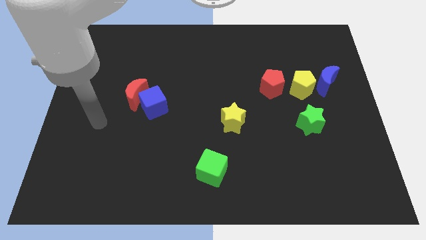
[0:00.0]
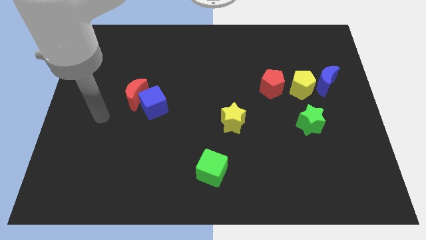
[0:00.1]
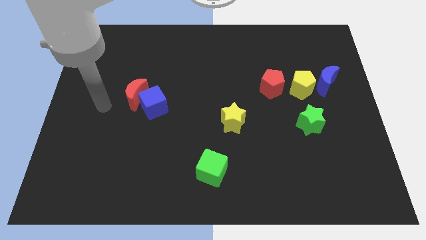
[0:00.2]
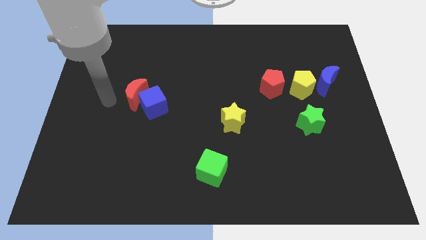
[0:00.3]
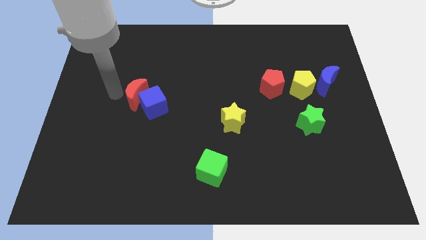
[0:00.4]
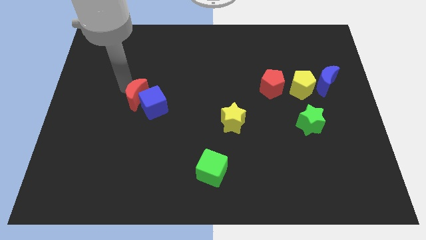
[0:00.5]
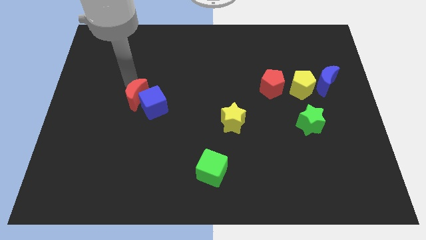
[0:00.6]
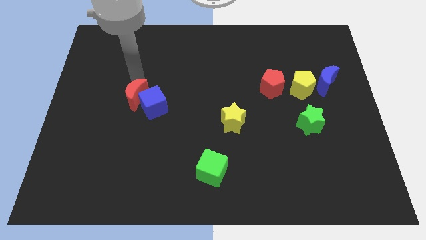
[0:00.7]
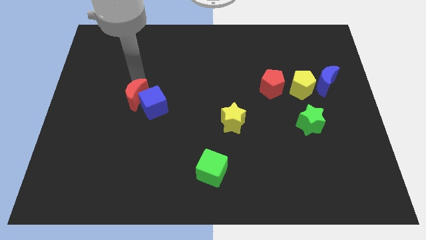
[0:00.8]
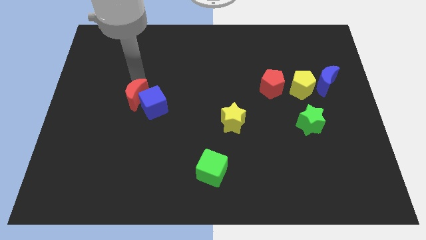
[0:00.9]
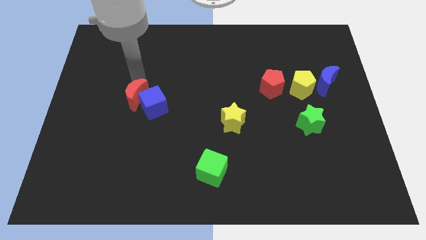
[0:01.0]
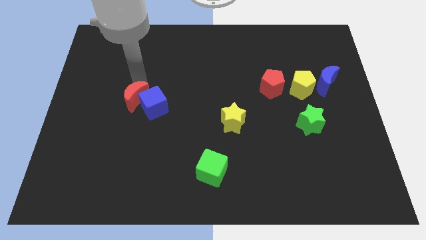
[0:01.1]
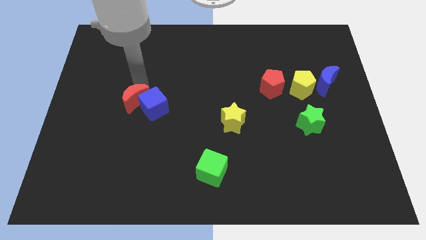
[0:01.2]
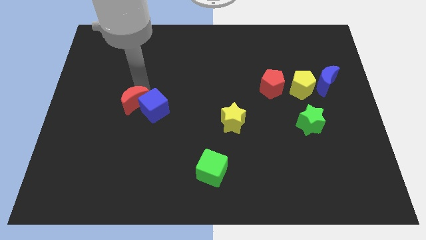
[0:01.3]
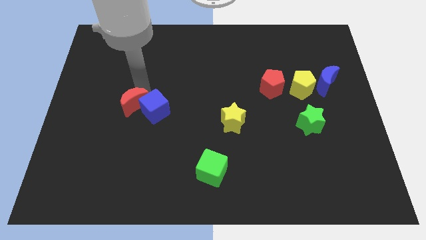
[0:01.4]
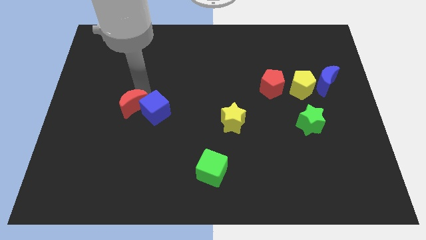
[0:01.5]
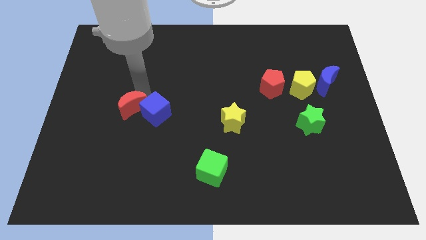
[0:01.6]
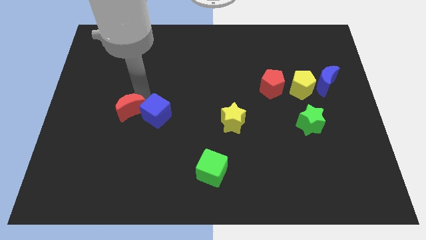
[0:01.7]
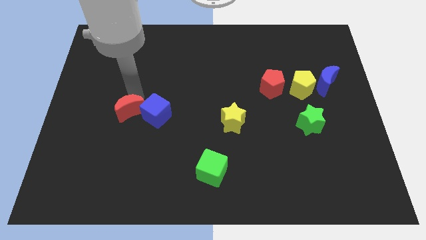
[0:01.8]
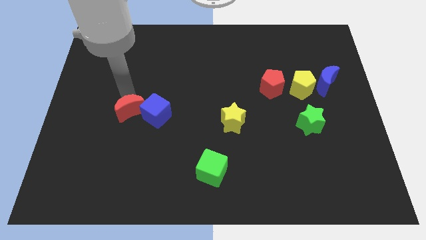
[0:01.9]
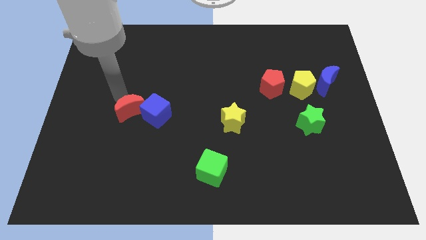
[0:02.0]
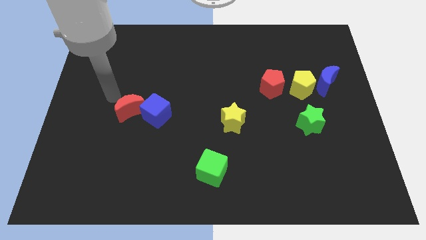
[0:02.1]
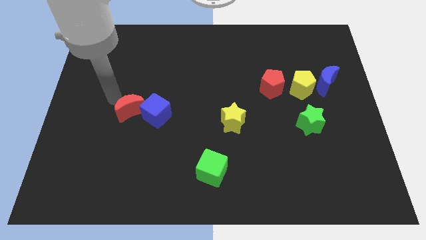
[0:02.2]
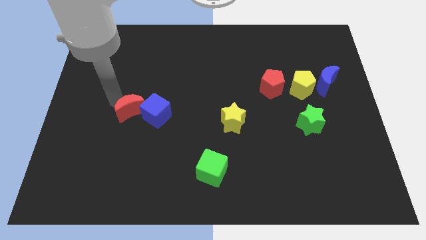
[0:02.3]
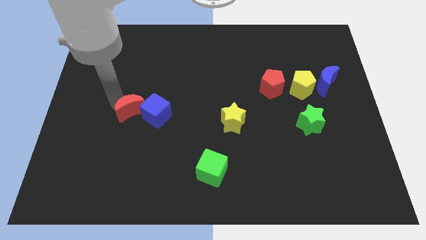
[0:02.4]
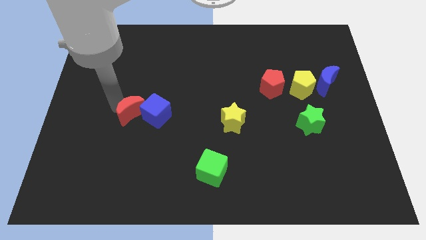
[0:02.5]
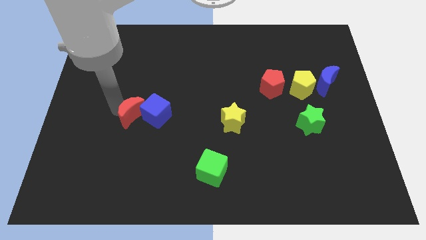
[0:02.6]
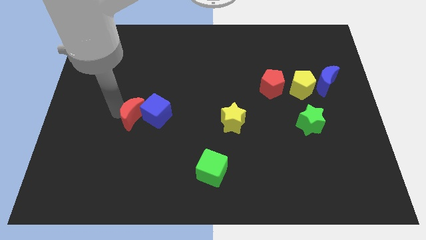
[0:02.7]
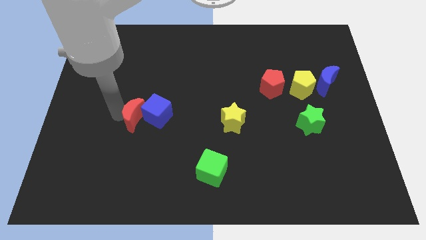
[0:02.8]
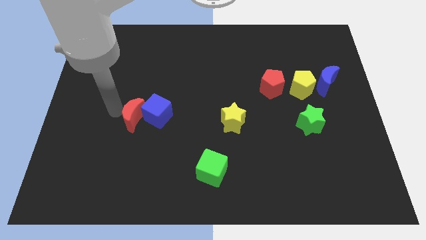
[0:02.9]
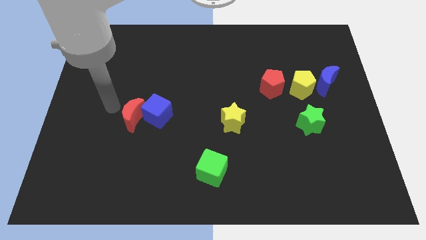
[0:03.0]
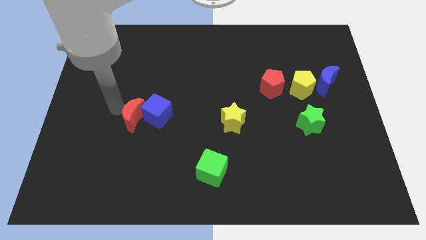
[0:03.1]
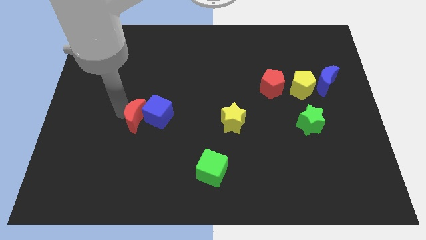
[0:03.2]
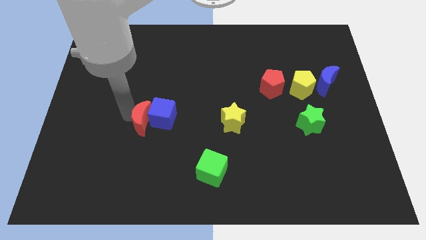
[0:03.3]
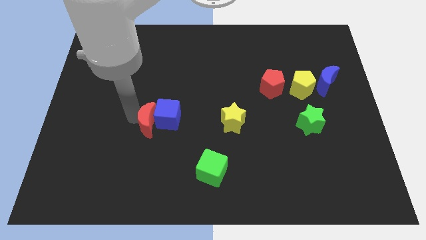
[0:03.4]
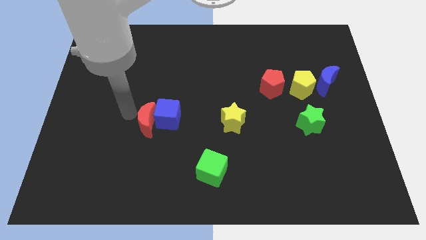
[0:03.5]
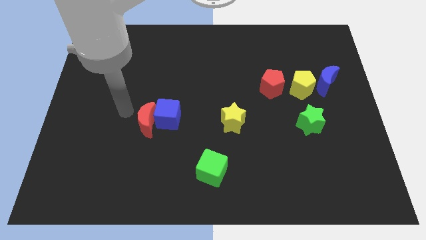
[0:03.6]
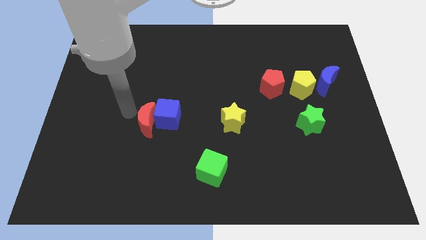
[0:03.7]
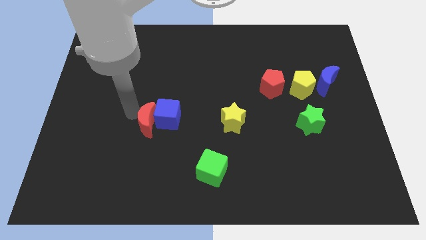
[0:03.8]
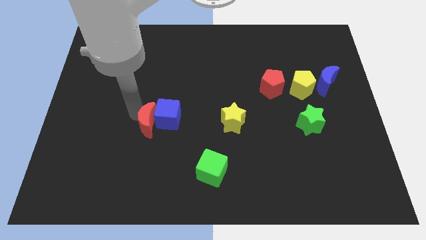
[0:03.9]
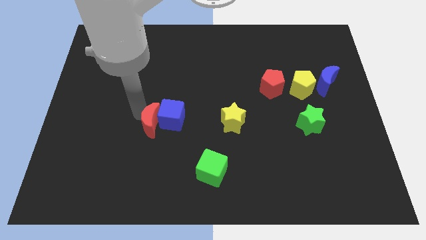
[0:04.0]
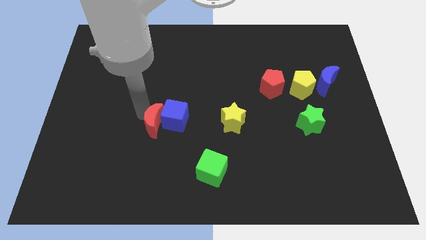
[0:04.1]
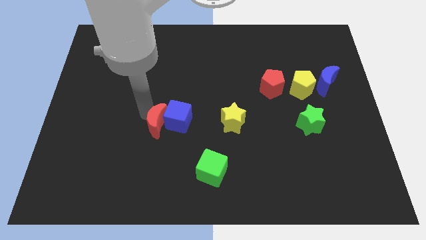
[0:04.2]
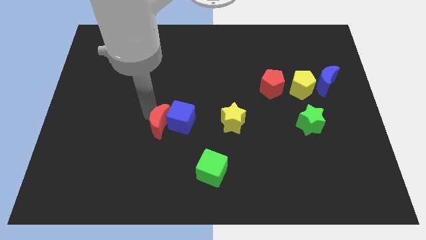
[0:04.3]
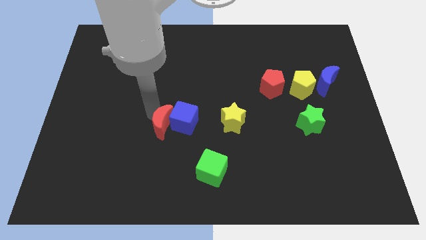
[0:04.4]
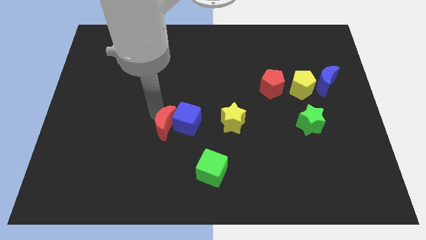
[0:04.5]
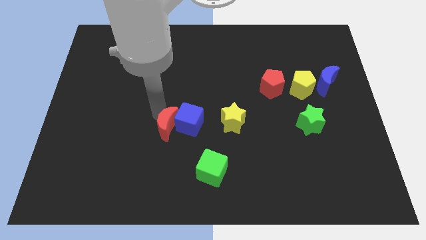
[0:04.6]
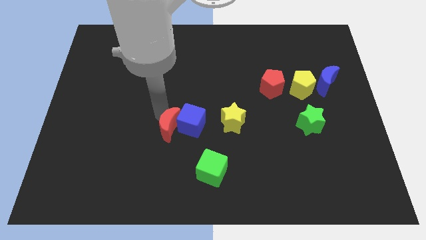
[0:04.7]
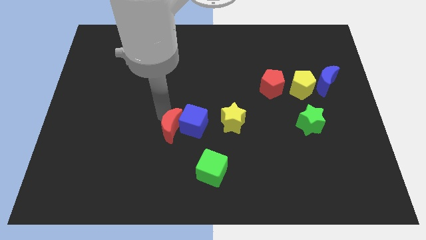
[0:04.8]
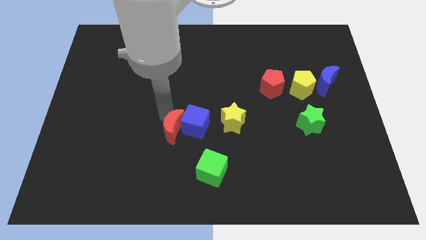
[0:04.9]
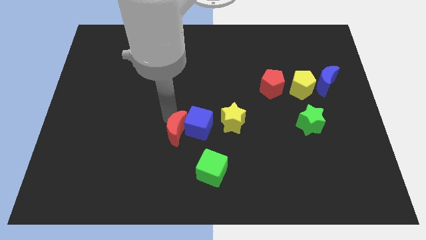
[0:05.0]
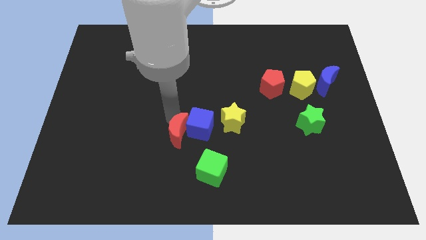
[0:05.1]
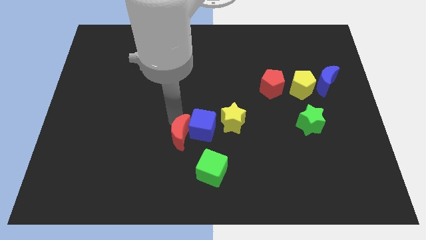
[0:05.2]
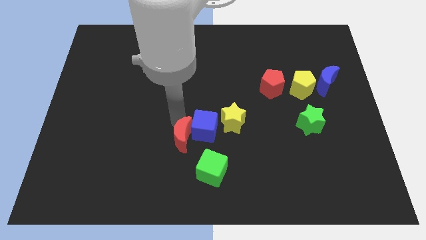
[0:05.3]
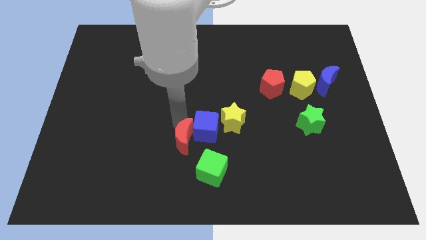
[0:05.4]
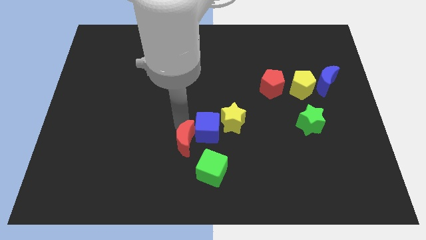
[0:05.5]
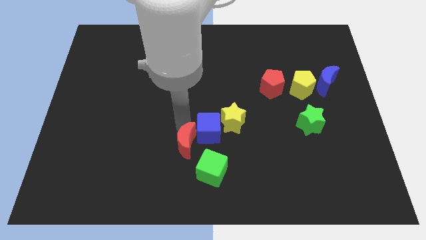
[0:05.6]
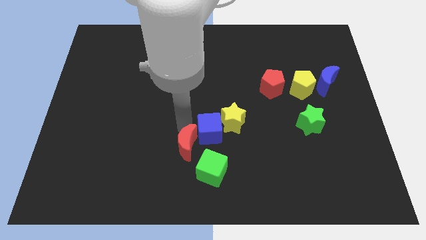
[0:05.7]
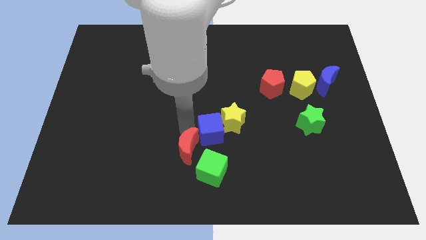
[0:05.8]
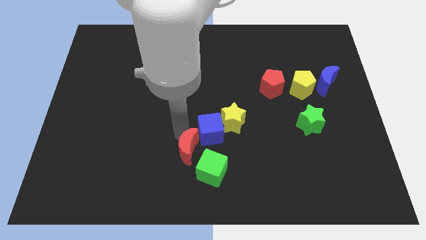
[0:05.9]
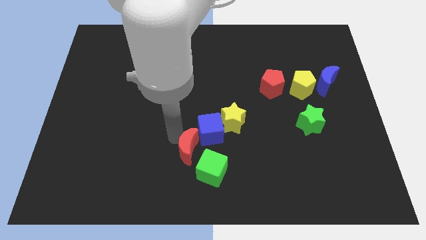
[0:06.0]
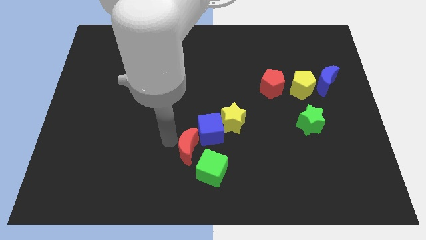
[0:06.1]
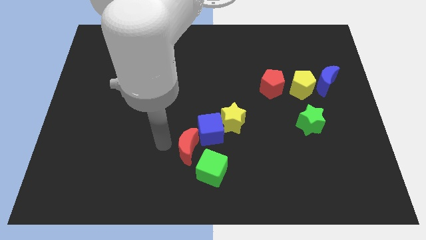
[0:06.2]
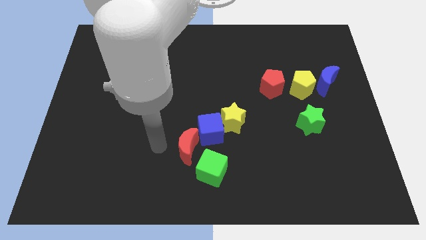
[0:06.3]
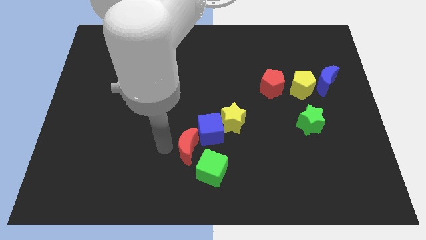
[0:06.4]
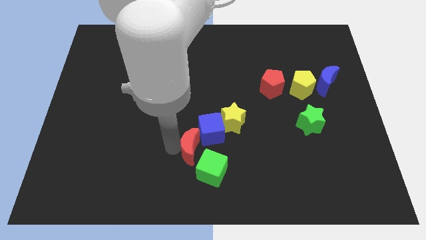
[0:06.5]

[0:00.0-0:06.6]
slide the red moon down and then right

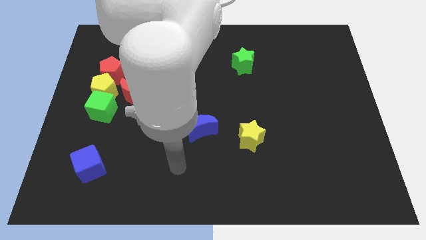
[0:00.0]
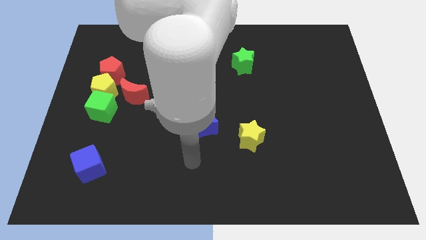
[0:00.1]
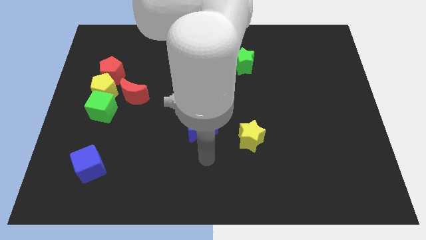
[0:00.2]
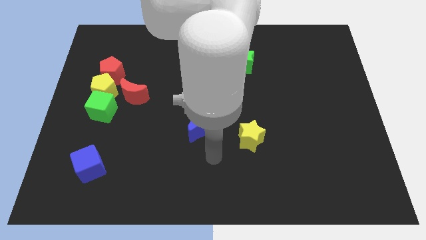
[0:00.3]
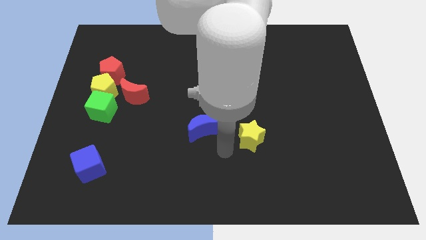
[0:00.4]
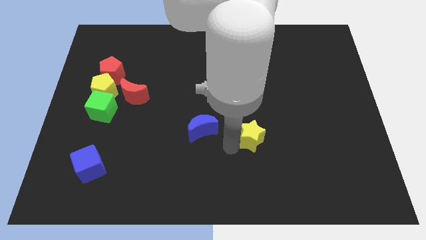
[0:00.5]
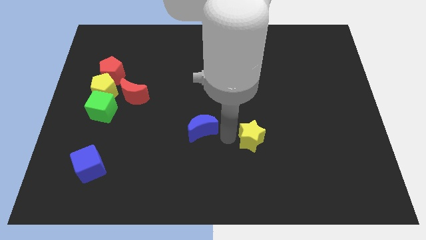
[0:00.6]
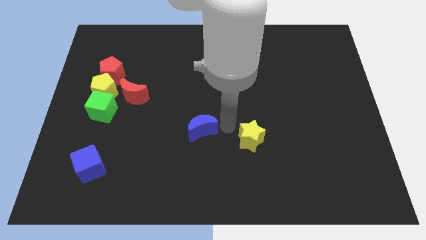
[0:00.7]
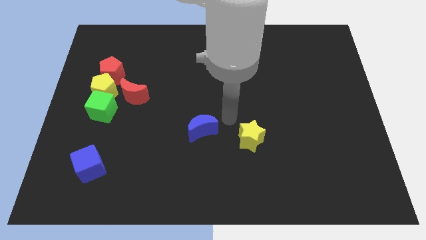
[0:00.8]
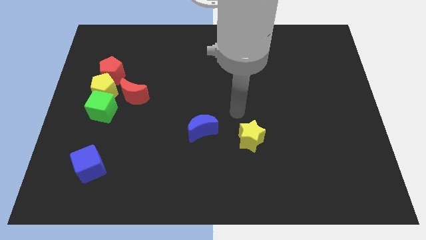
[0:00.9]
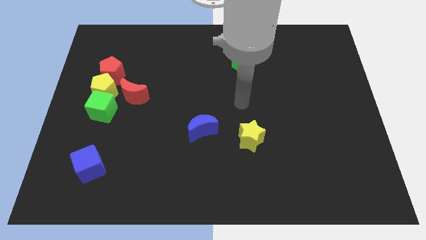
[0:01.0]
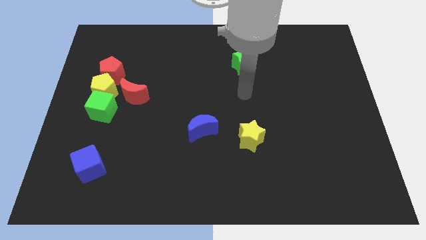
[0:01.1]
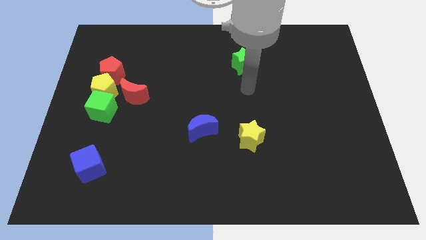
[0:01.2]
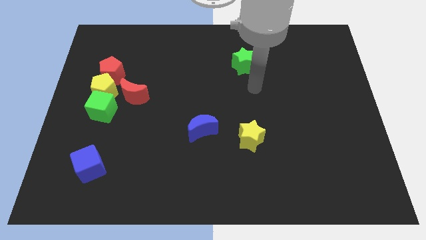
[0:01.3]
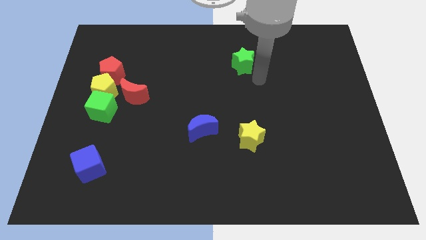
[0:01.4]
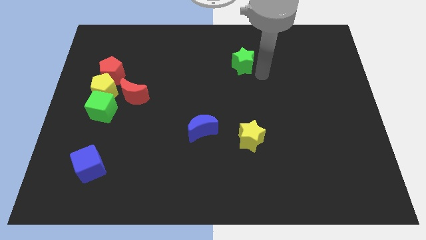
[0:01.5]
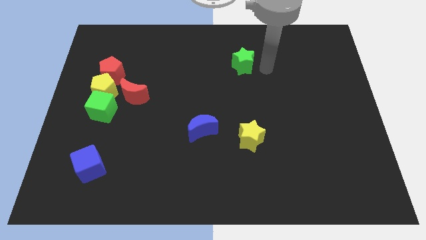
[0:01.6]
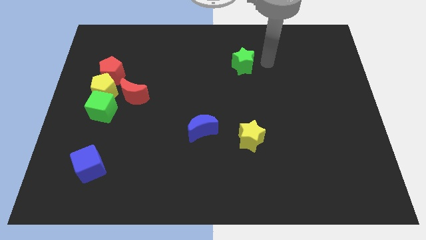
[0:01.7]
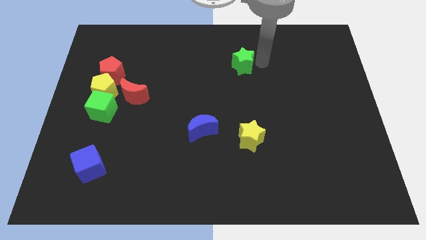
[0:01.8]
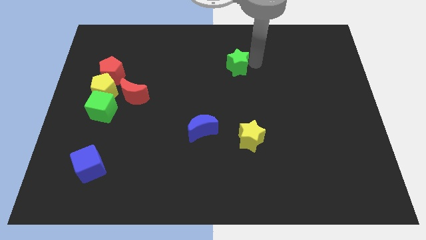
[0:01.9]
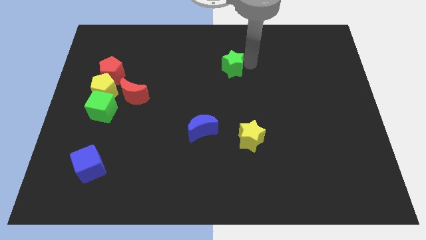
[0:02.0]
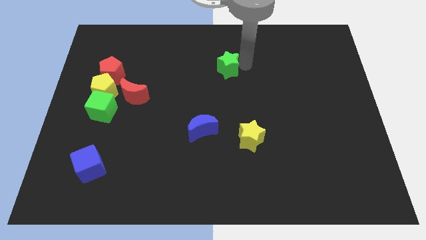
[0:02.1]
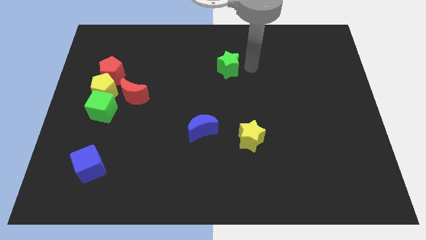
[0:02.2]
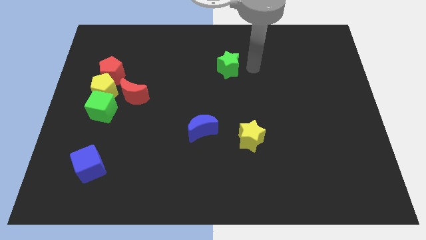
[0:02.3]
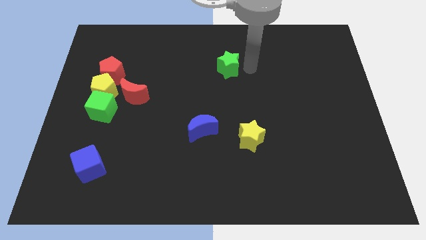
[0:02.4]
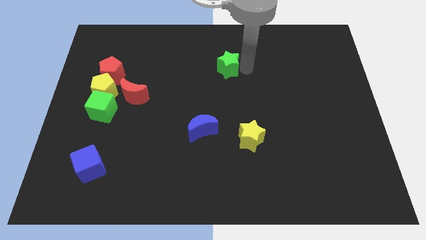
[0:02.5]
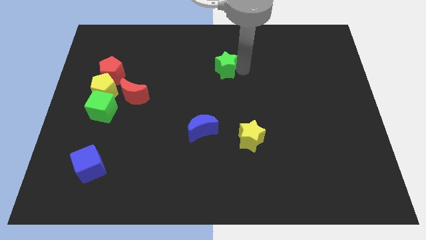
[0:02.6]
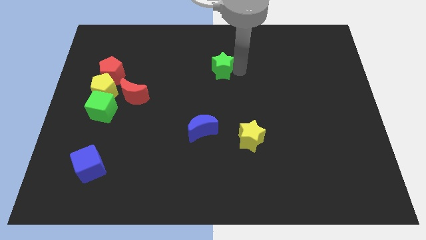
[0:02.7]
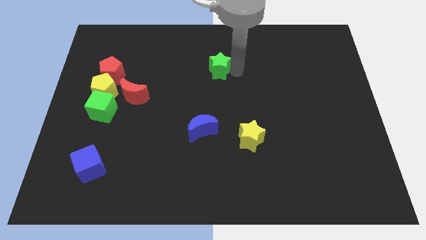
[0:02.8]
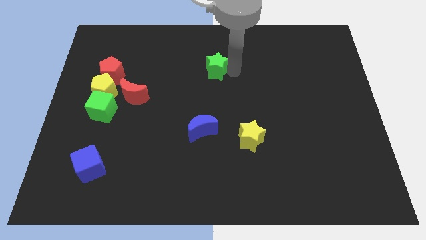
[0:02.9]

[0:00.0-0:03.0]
slide the green star to the left a little bit
